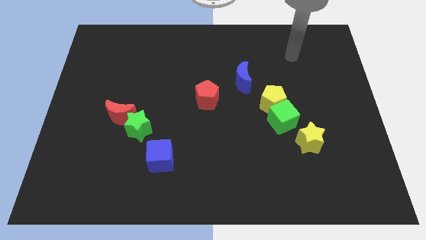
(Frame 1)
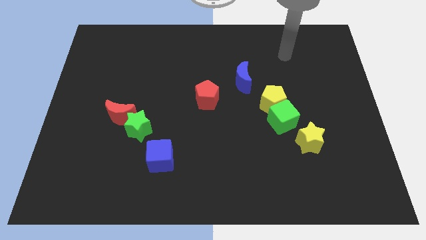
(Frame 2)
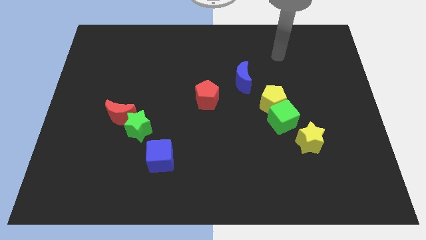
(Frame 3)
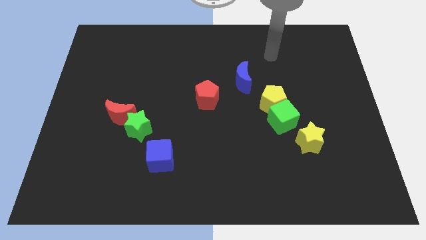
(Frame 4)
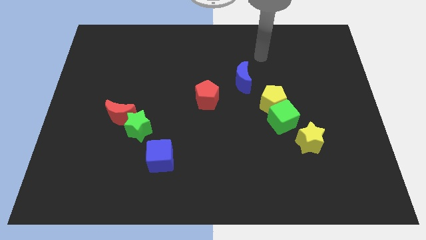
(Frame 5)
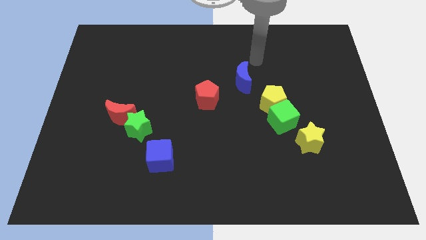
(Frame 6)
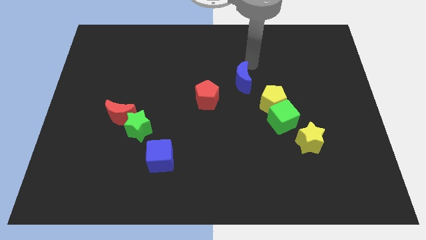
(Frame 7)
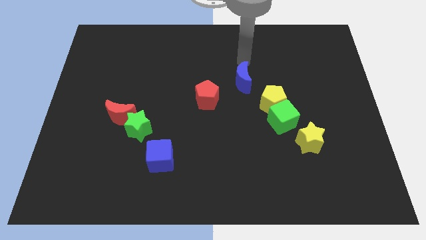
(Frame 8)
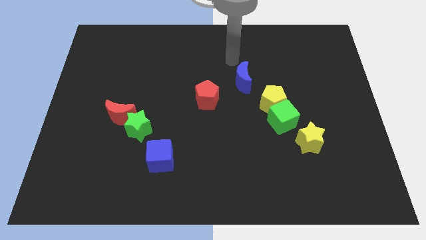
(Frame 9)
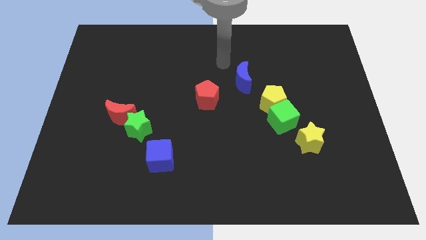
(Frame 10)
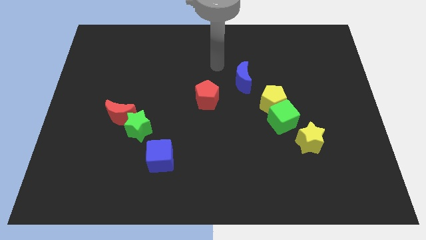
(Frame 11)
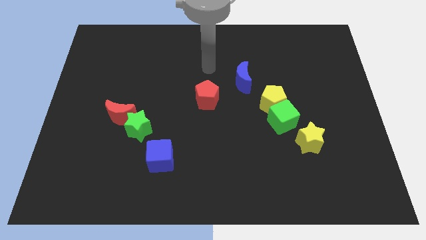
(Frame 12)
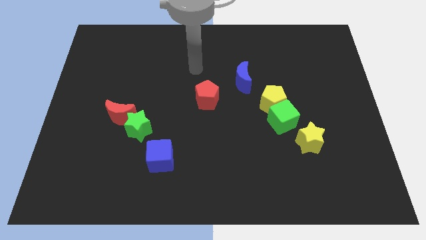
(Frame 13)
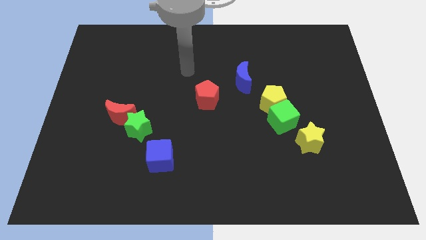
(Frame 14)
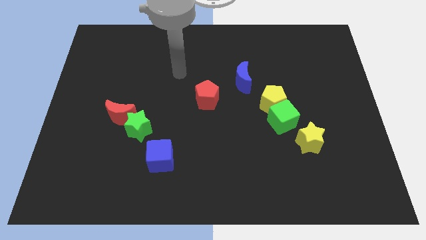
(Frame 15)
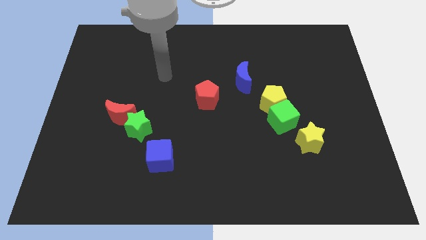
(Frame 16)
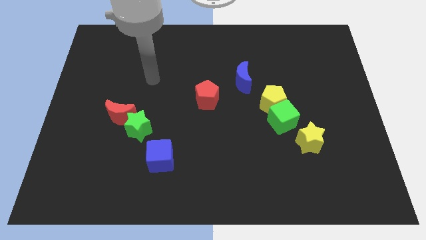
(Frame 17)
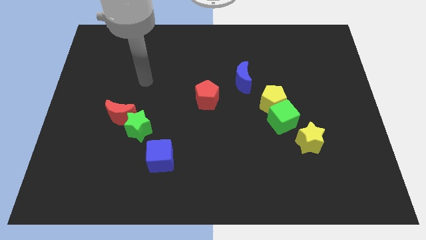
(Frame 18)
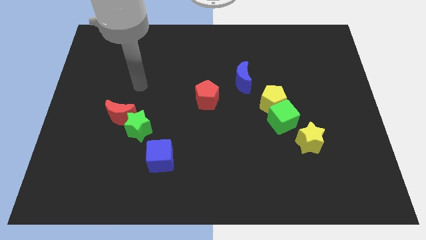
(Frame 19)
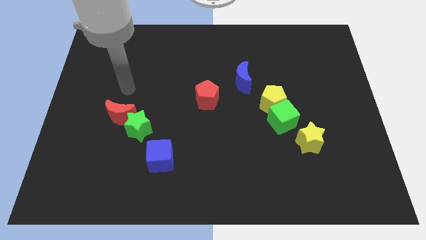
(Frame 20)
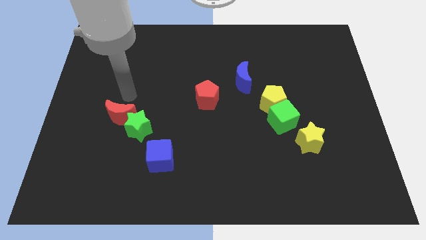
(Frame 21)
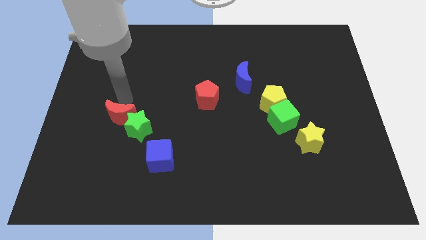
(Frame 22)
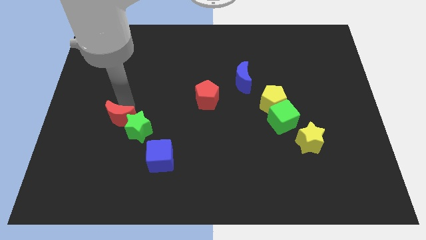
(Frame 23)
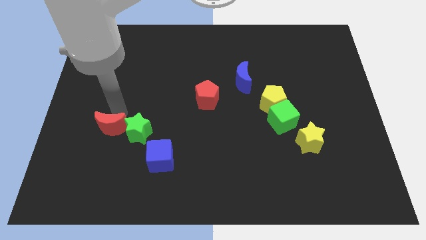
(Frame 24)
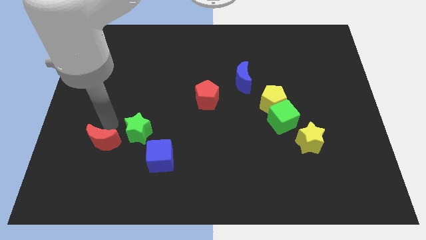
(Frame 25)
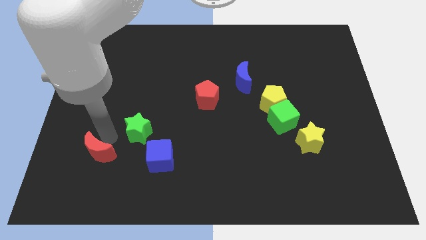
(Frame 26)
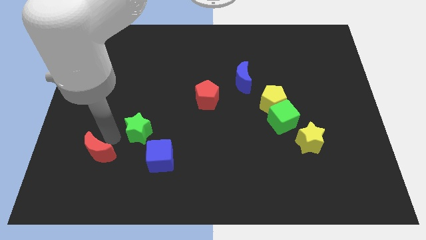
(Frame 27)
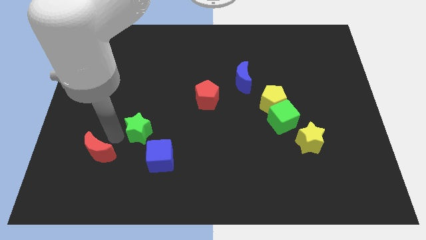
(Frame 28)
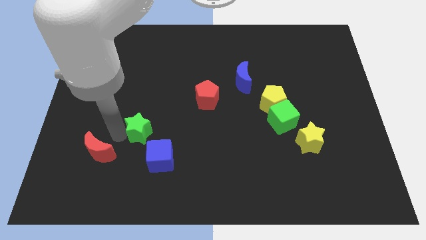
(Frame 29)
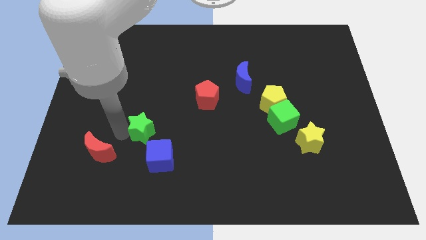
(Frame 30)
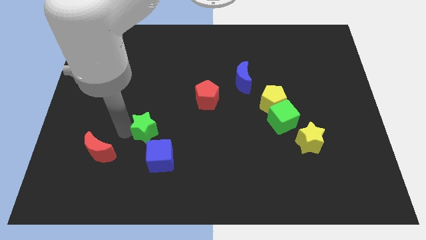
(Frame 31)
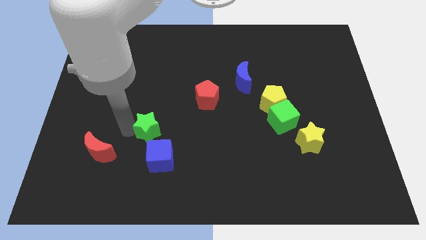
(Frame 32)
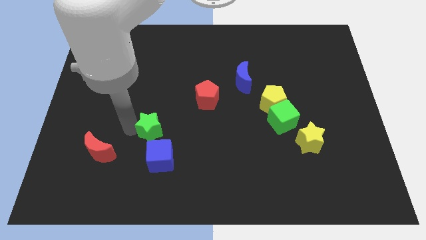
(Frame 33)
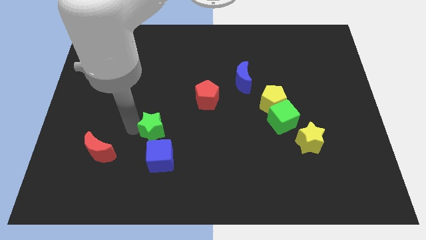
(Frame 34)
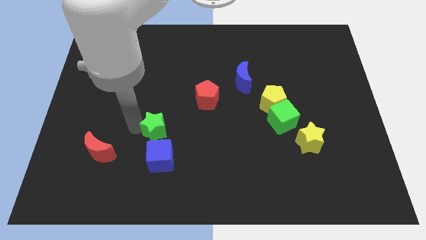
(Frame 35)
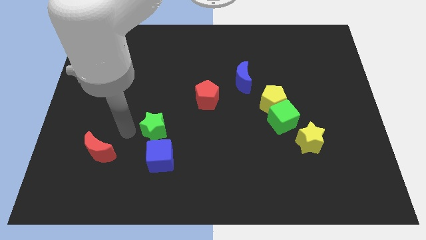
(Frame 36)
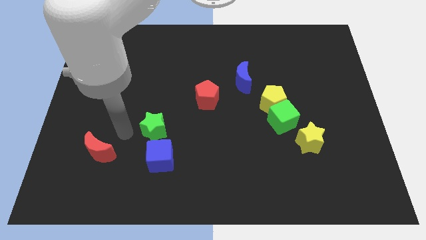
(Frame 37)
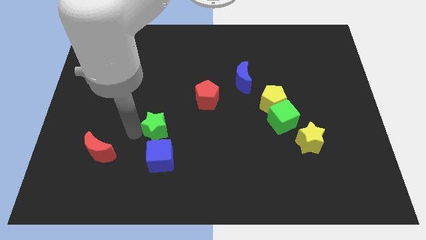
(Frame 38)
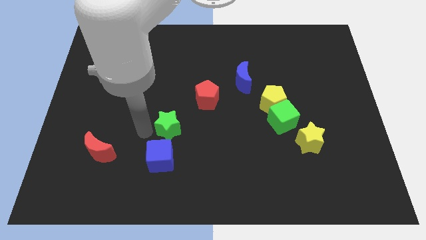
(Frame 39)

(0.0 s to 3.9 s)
move the green star a little right

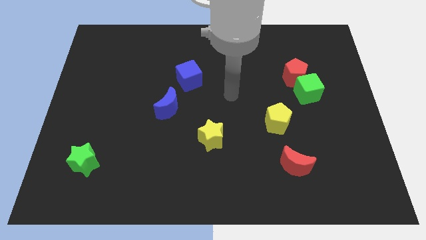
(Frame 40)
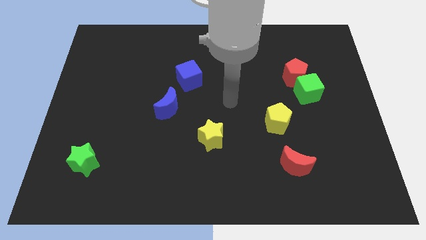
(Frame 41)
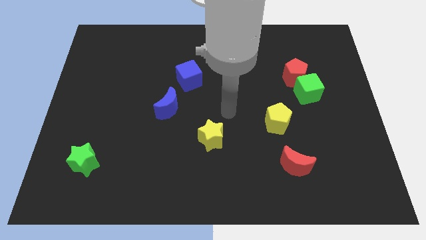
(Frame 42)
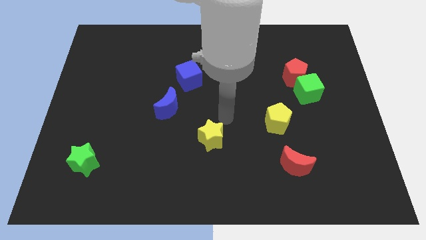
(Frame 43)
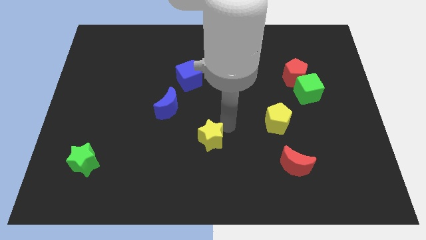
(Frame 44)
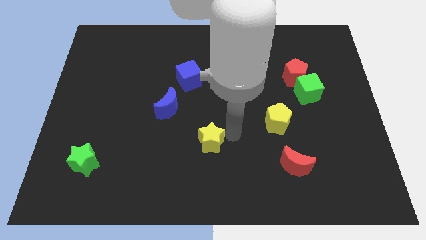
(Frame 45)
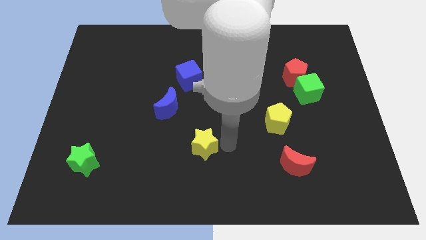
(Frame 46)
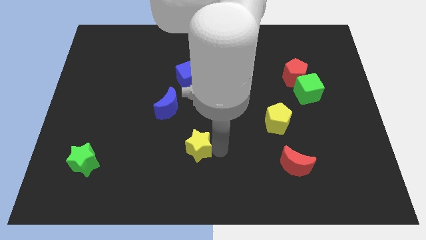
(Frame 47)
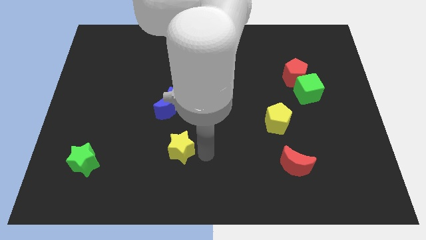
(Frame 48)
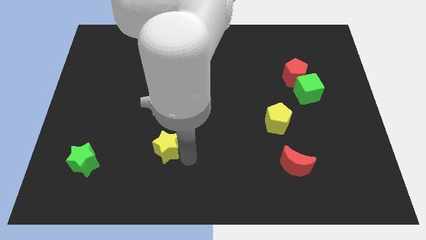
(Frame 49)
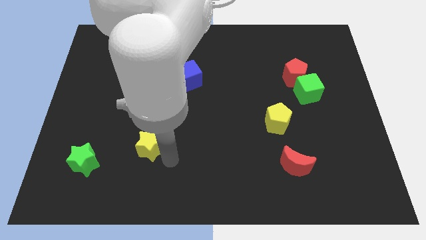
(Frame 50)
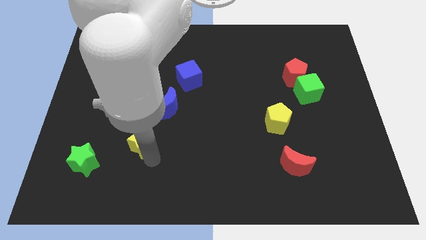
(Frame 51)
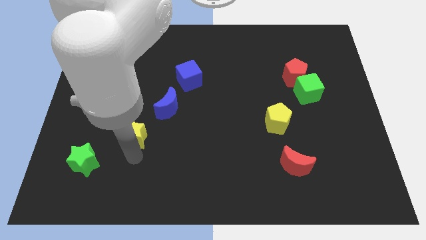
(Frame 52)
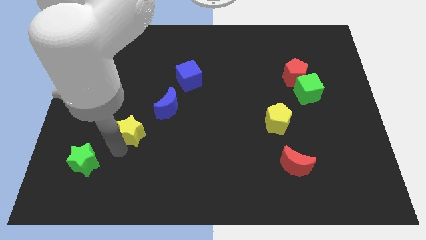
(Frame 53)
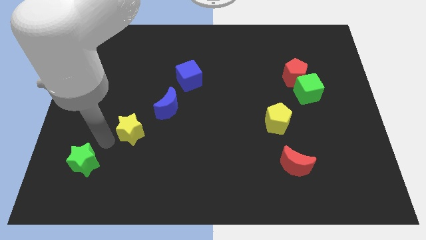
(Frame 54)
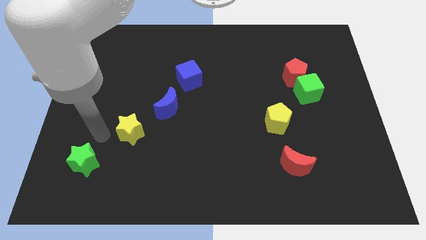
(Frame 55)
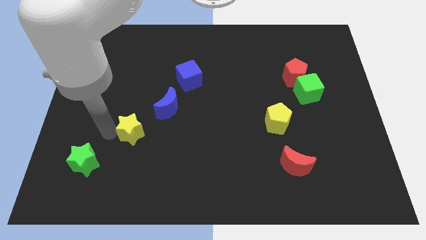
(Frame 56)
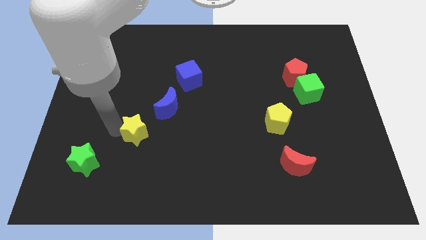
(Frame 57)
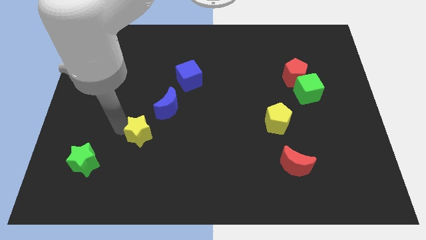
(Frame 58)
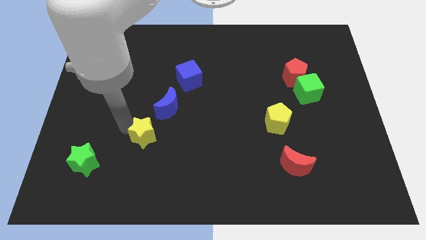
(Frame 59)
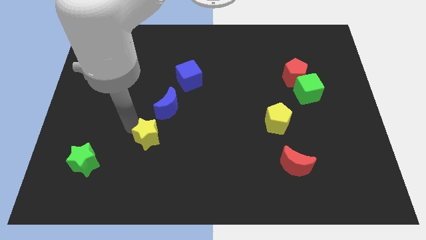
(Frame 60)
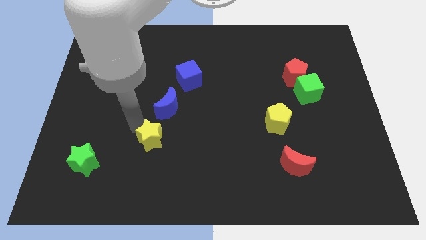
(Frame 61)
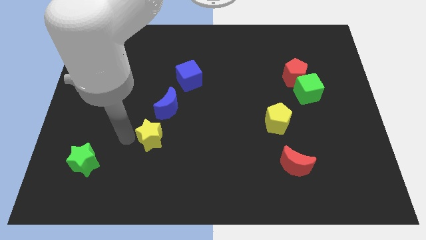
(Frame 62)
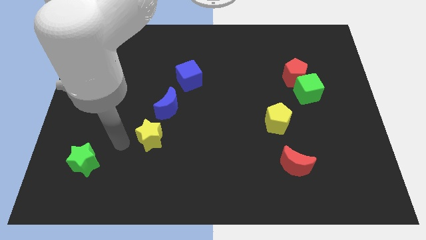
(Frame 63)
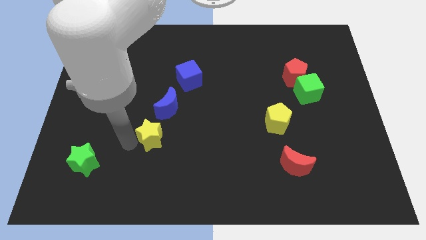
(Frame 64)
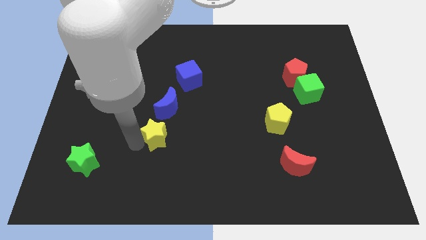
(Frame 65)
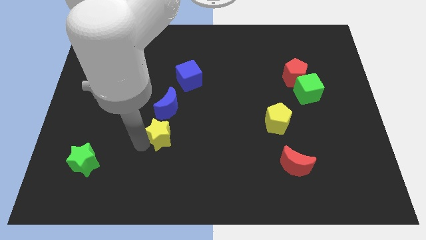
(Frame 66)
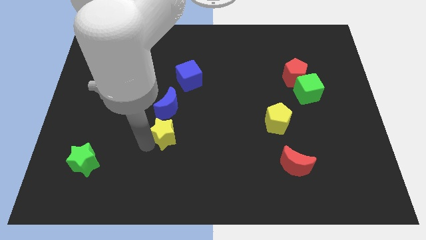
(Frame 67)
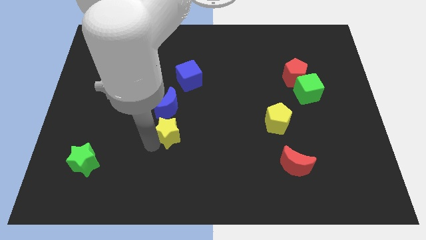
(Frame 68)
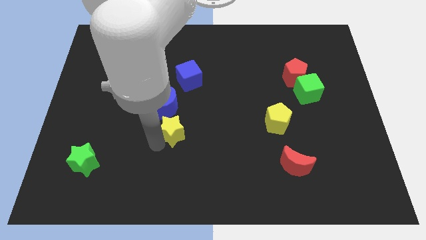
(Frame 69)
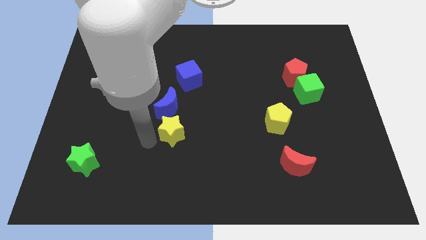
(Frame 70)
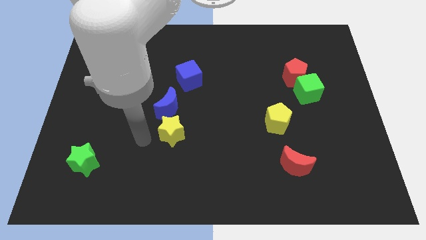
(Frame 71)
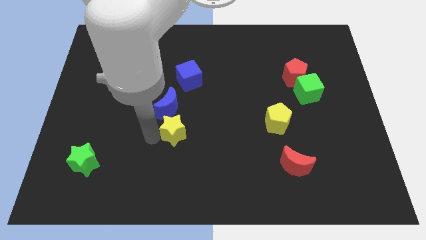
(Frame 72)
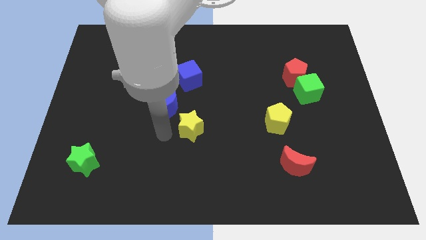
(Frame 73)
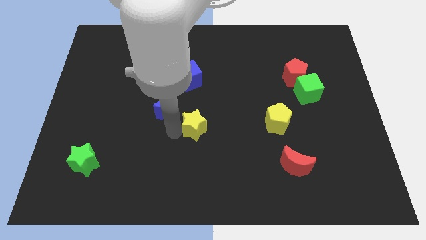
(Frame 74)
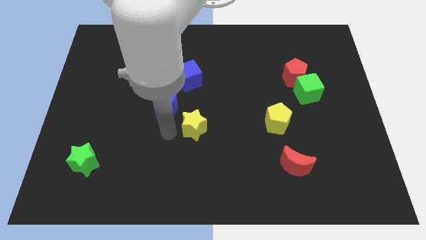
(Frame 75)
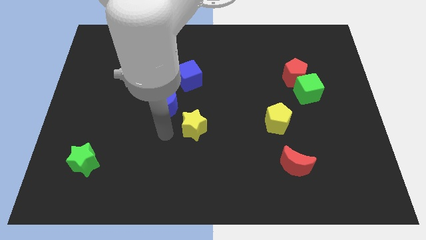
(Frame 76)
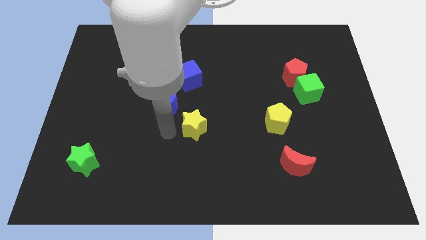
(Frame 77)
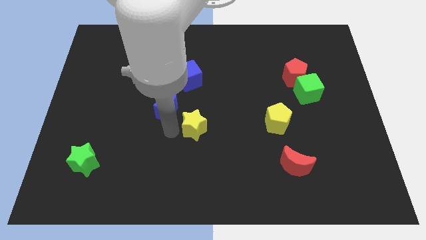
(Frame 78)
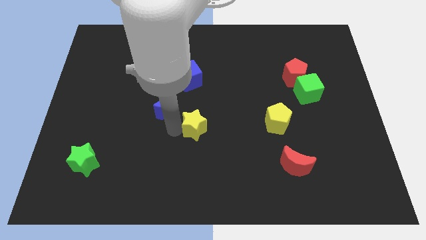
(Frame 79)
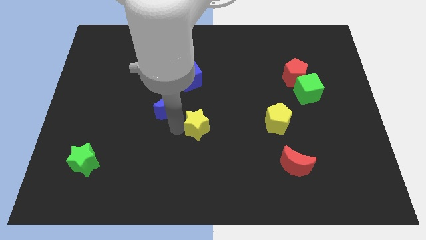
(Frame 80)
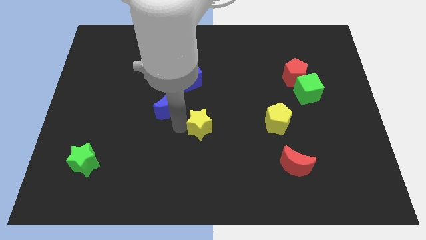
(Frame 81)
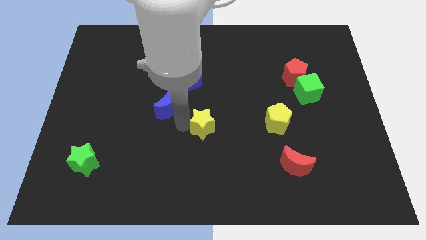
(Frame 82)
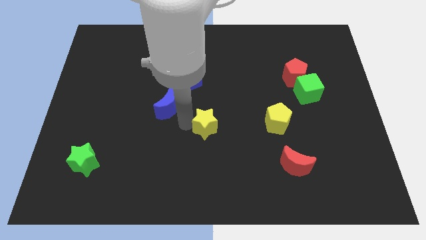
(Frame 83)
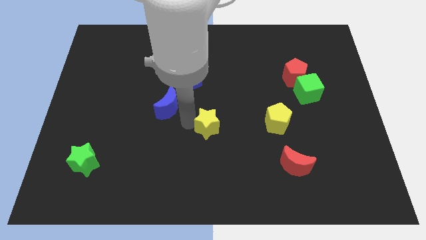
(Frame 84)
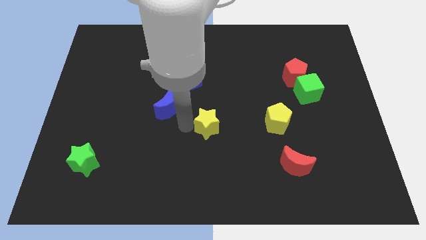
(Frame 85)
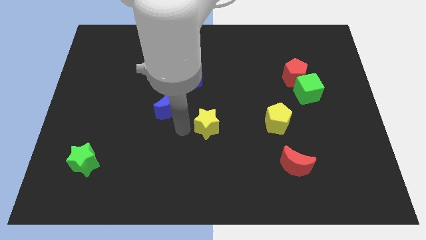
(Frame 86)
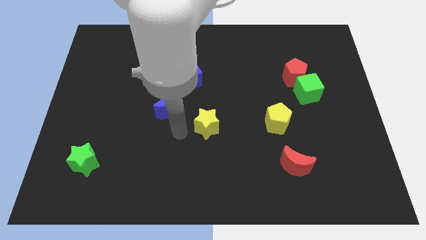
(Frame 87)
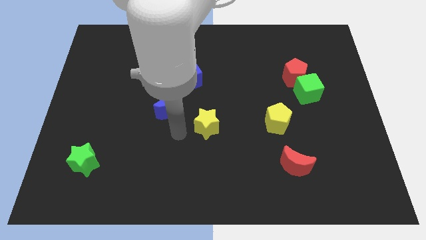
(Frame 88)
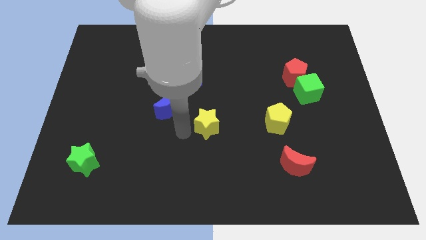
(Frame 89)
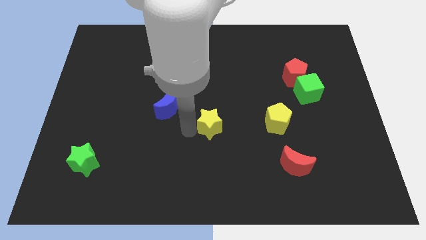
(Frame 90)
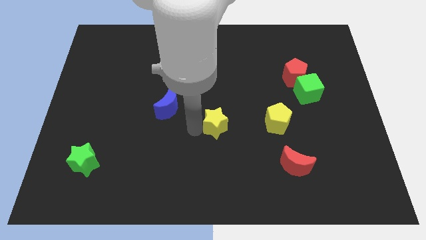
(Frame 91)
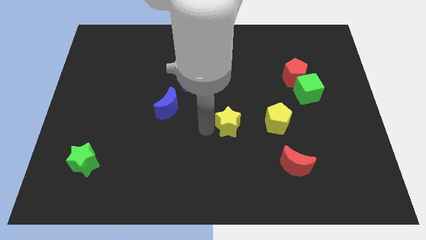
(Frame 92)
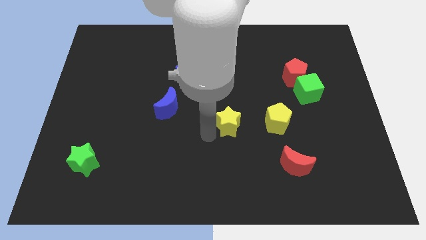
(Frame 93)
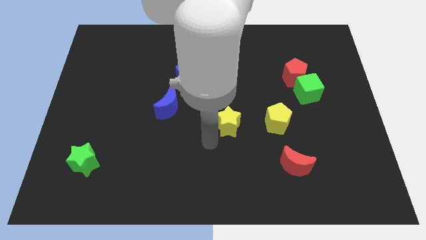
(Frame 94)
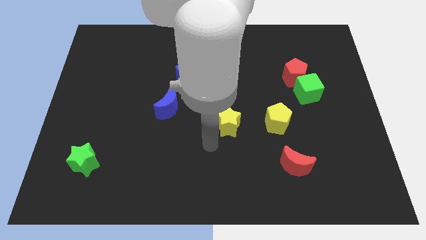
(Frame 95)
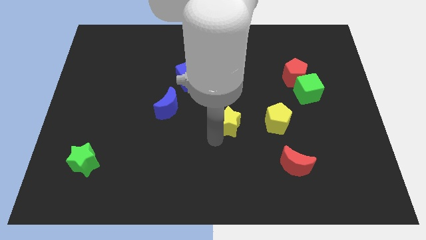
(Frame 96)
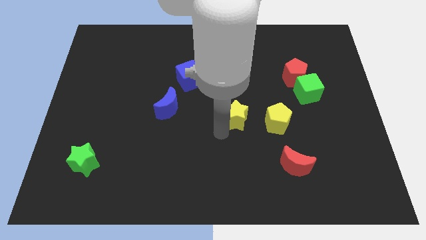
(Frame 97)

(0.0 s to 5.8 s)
push the yellow star slightly upwards and right diagonally
